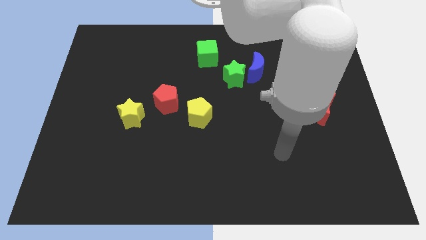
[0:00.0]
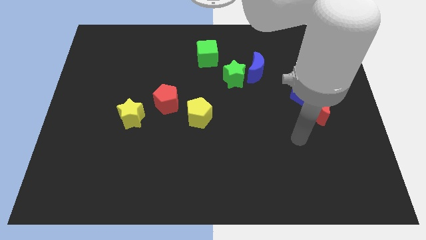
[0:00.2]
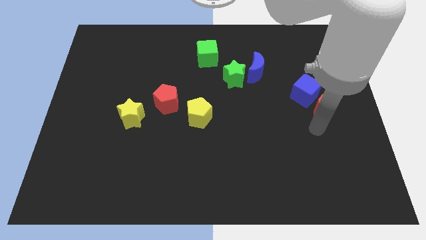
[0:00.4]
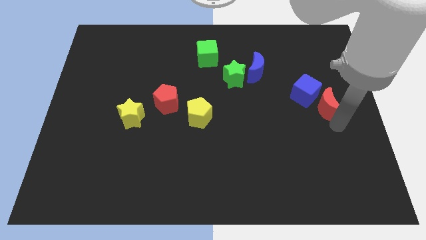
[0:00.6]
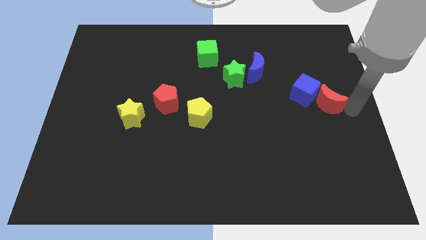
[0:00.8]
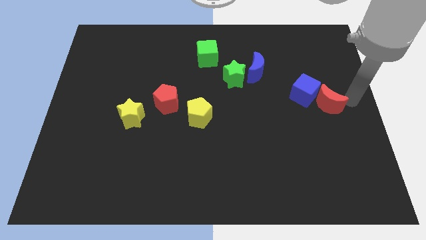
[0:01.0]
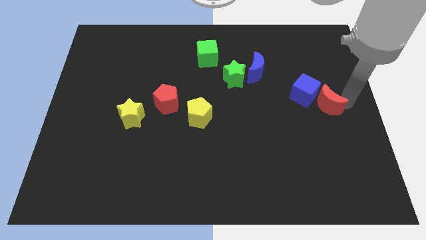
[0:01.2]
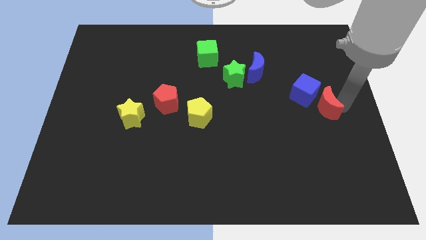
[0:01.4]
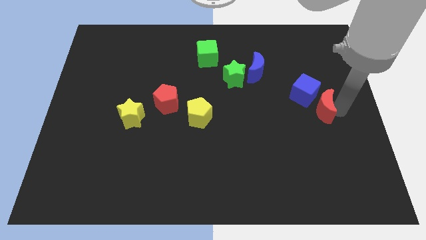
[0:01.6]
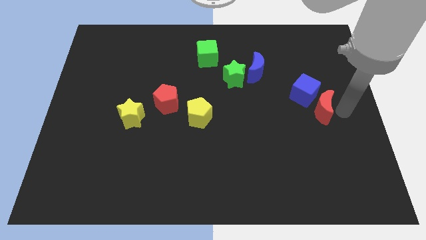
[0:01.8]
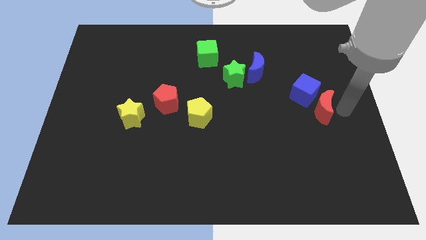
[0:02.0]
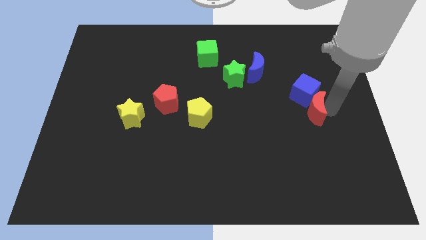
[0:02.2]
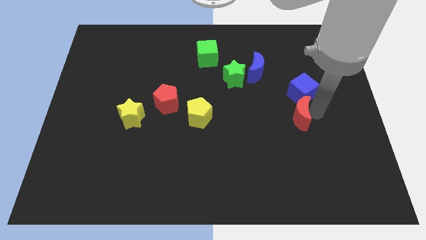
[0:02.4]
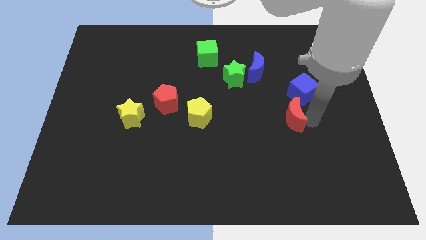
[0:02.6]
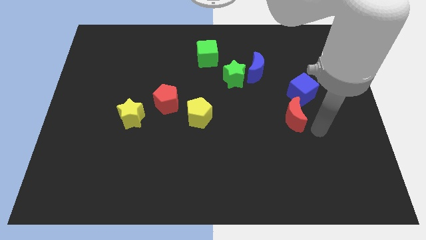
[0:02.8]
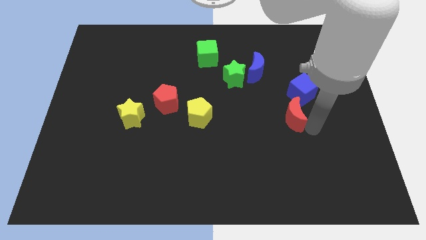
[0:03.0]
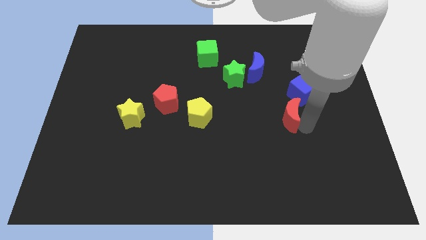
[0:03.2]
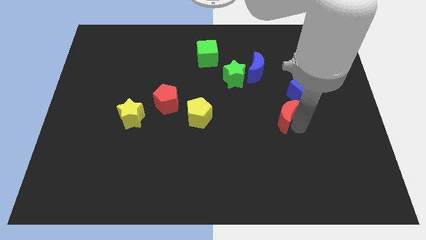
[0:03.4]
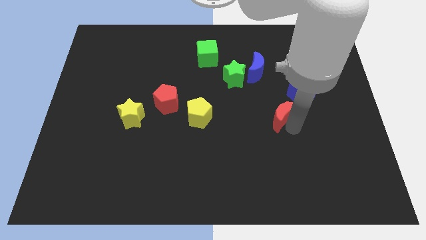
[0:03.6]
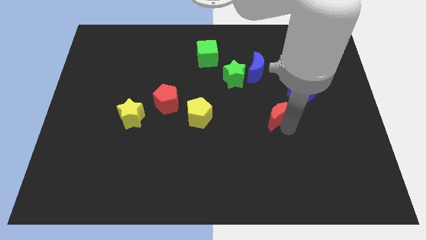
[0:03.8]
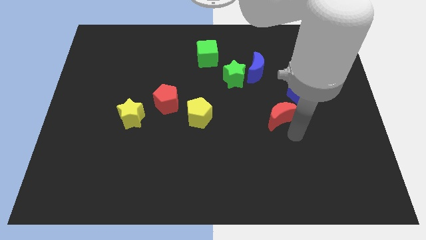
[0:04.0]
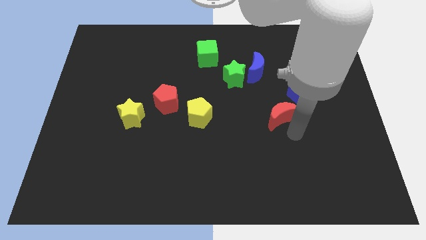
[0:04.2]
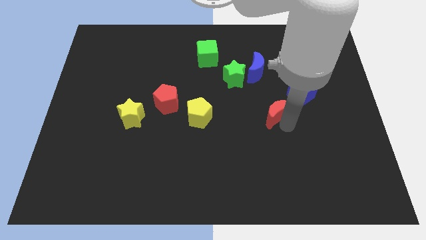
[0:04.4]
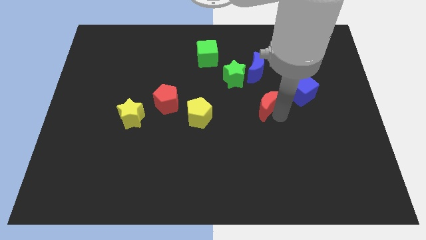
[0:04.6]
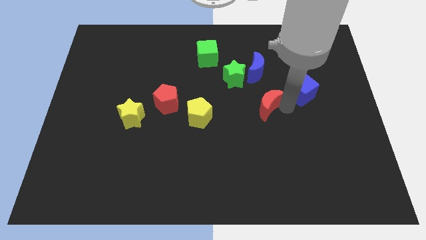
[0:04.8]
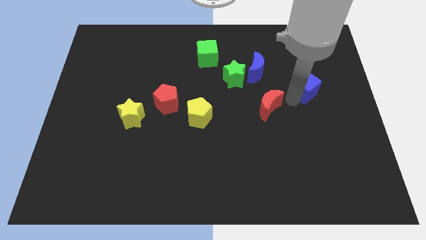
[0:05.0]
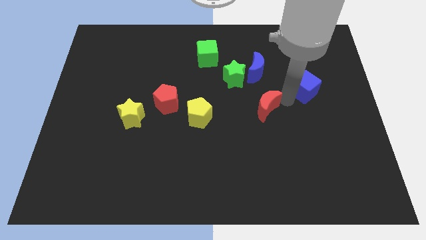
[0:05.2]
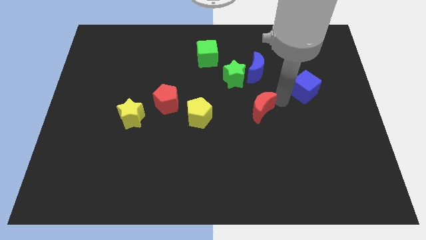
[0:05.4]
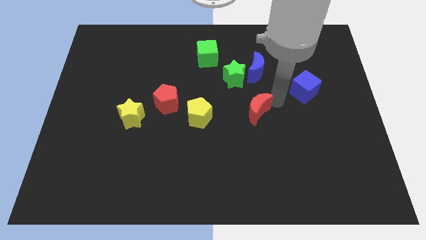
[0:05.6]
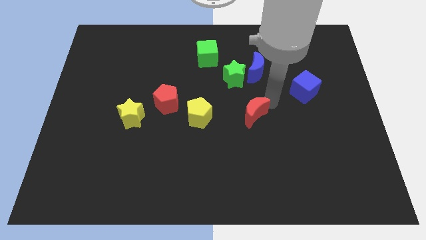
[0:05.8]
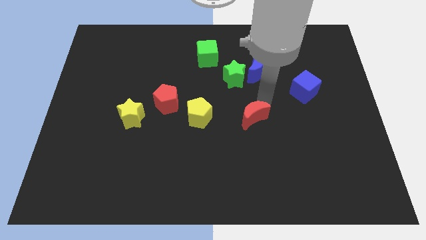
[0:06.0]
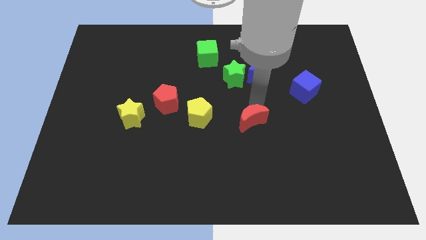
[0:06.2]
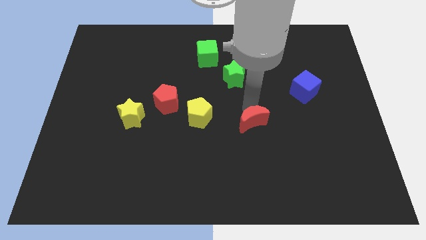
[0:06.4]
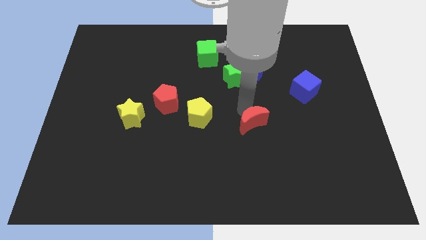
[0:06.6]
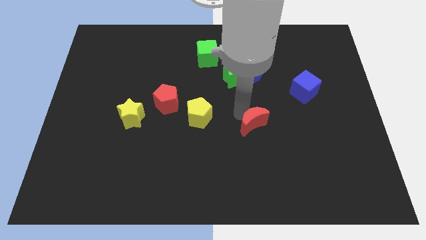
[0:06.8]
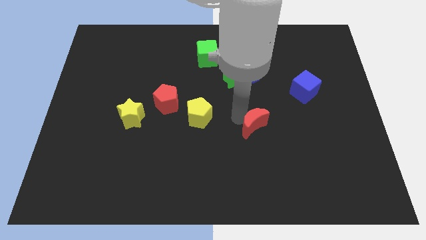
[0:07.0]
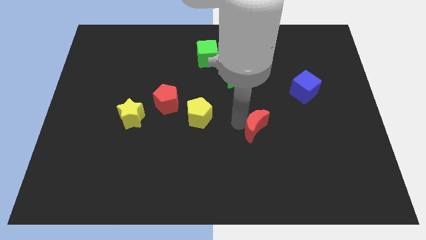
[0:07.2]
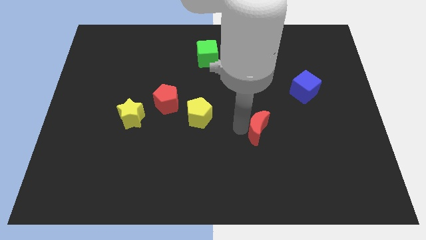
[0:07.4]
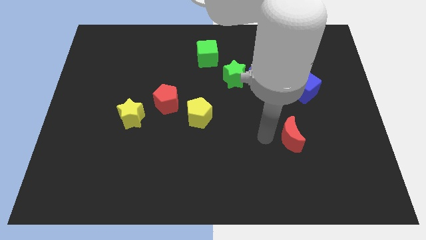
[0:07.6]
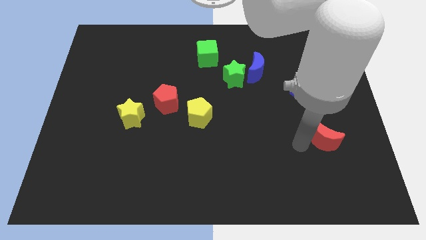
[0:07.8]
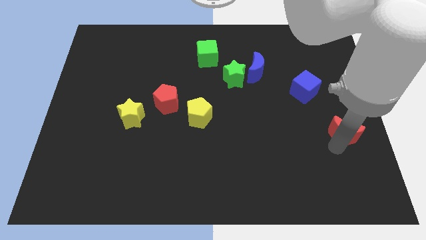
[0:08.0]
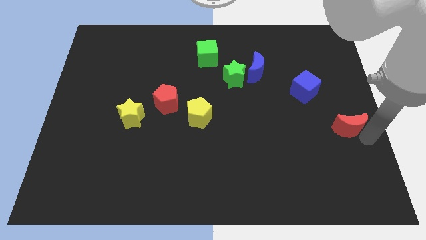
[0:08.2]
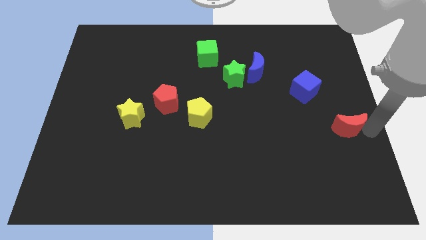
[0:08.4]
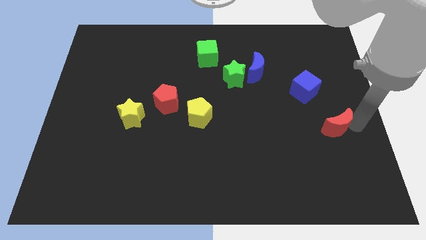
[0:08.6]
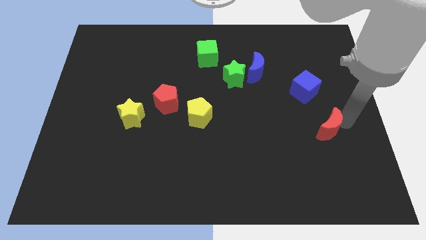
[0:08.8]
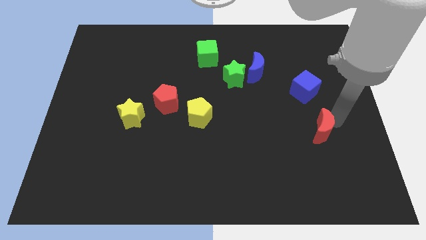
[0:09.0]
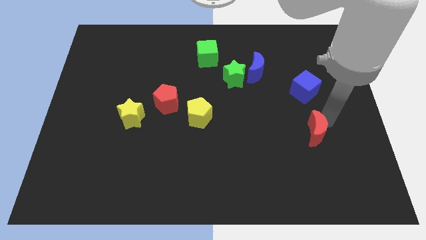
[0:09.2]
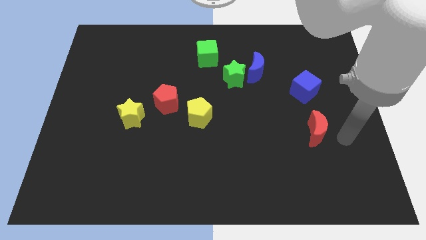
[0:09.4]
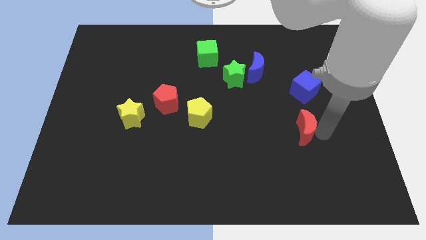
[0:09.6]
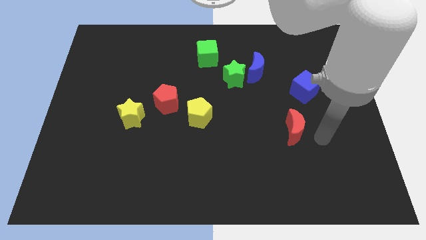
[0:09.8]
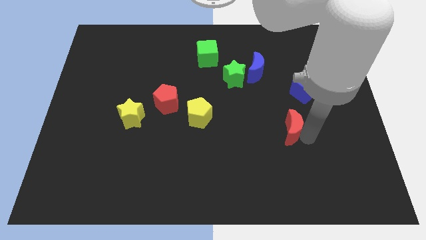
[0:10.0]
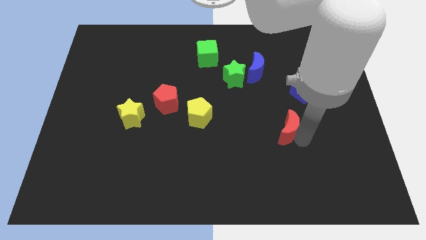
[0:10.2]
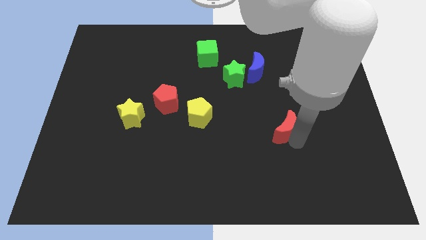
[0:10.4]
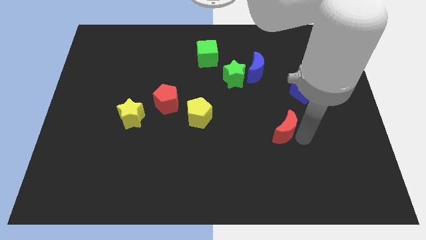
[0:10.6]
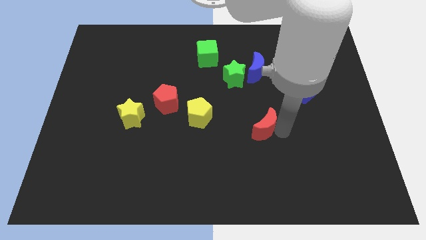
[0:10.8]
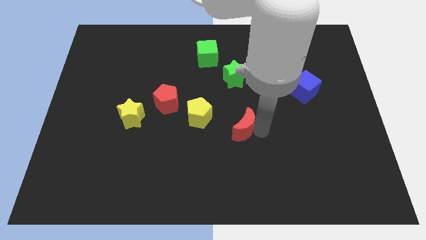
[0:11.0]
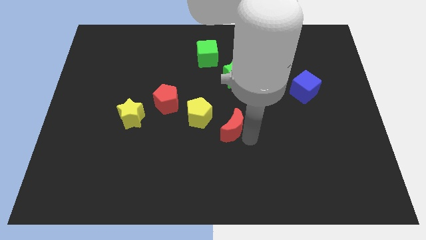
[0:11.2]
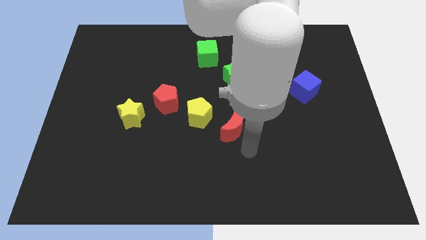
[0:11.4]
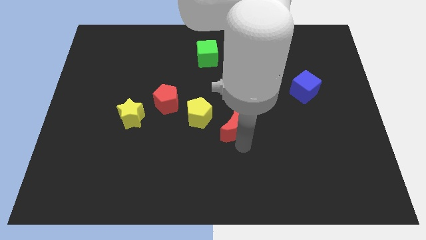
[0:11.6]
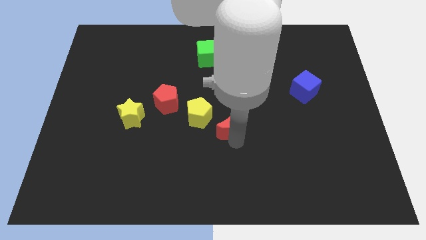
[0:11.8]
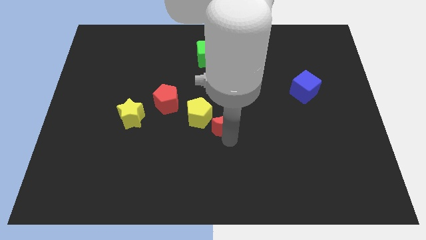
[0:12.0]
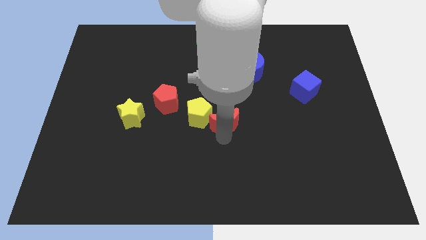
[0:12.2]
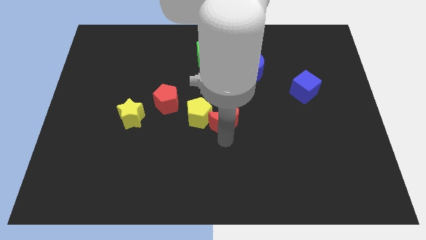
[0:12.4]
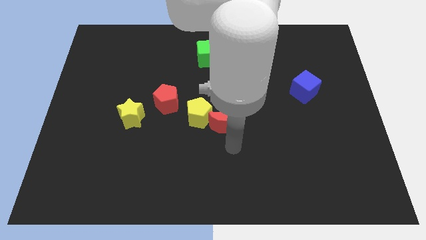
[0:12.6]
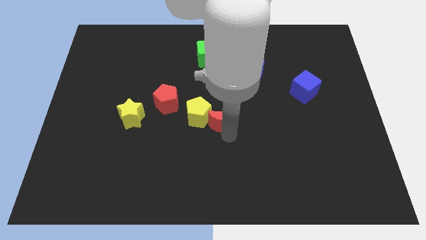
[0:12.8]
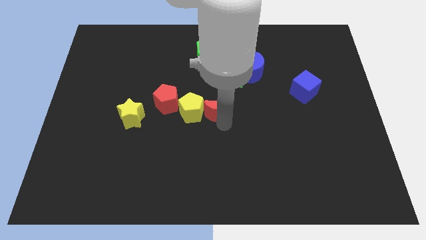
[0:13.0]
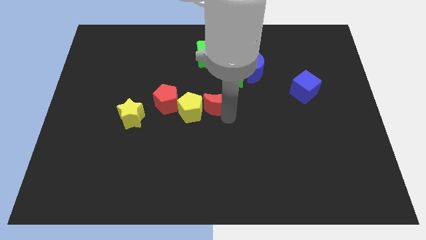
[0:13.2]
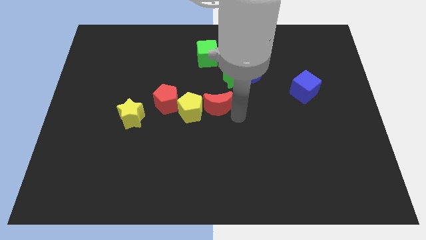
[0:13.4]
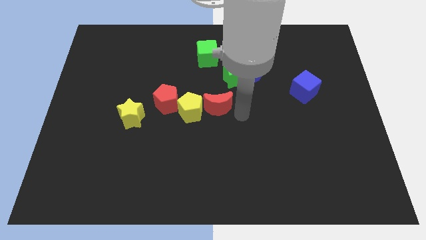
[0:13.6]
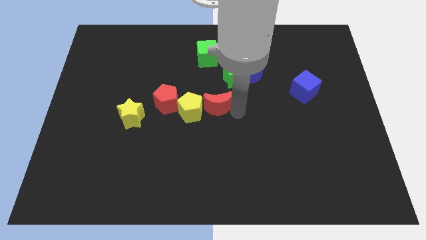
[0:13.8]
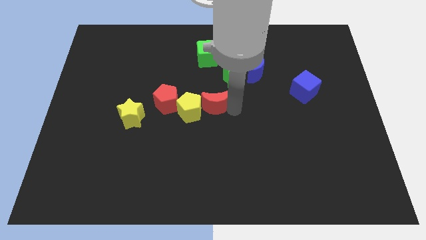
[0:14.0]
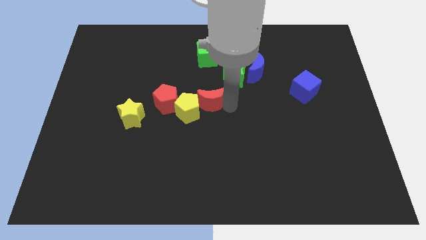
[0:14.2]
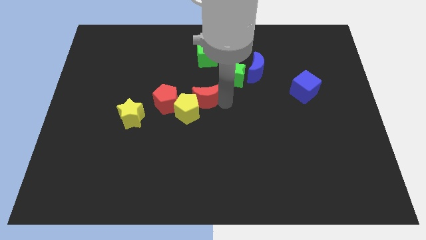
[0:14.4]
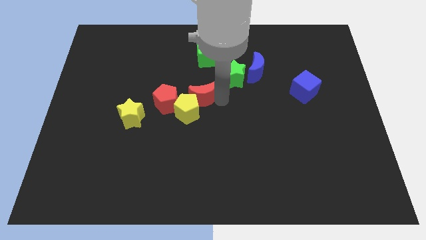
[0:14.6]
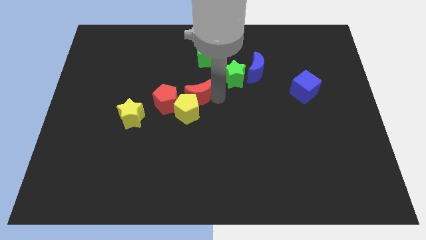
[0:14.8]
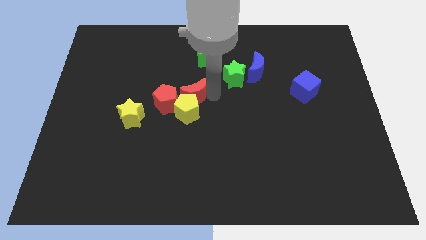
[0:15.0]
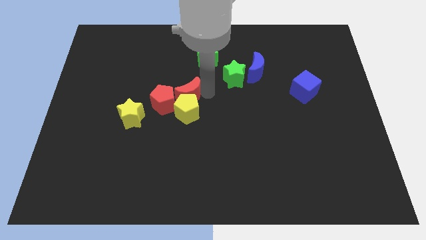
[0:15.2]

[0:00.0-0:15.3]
put the red moon close to the red pentagon
